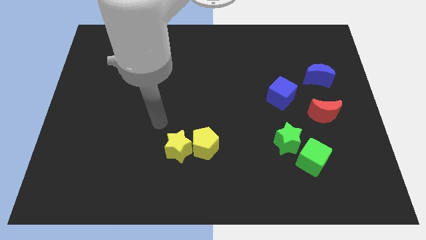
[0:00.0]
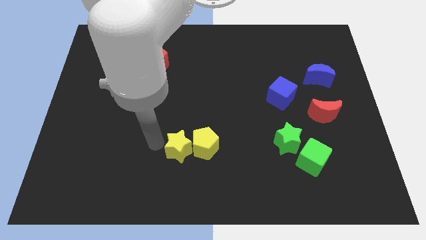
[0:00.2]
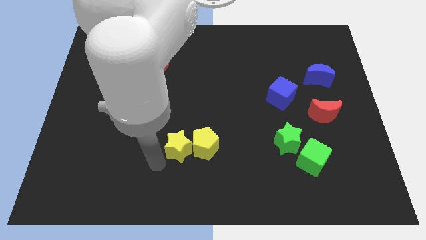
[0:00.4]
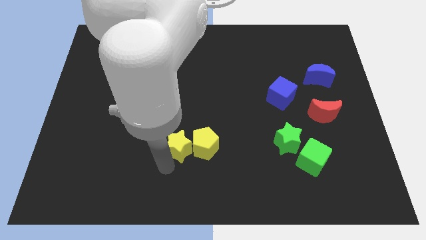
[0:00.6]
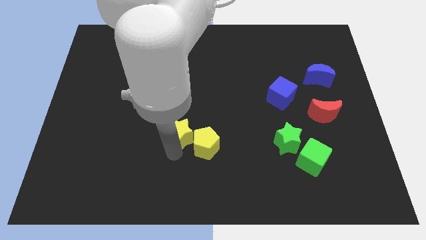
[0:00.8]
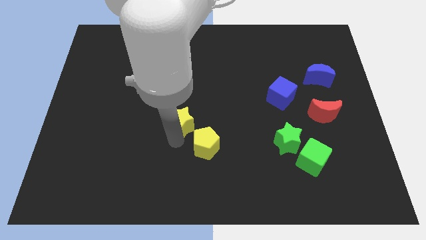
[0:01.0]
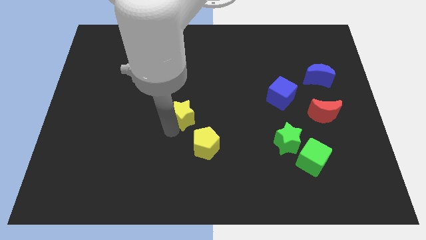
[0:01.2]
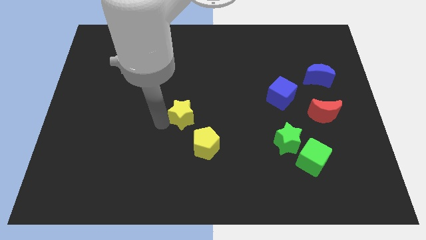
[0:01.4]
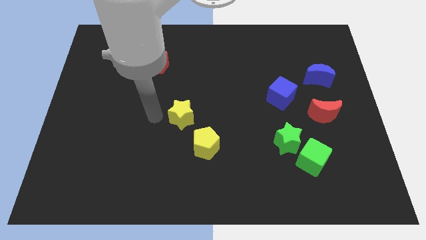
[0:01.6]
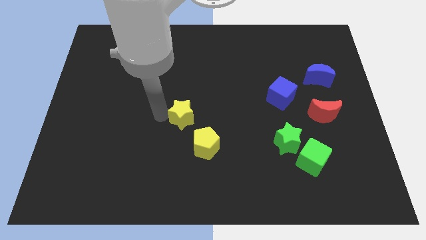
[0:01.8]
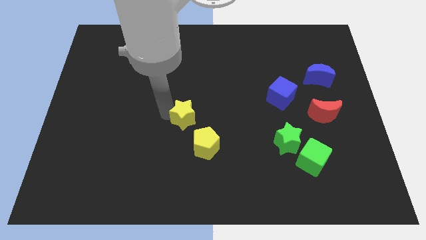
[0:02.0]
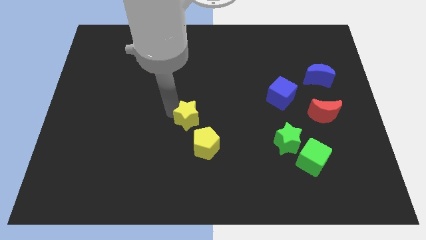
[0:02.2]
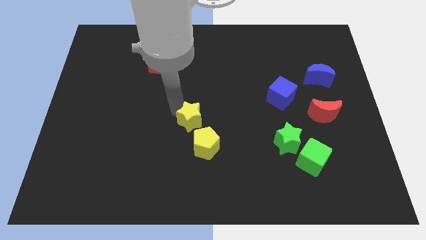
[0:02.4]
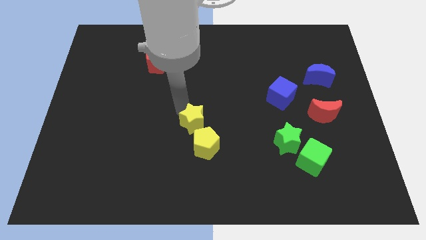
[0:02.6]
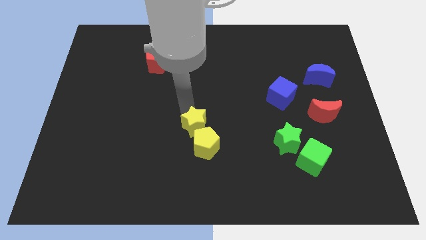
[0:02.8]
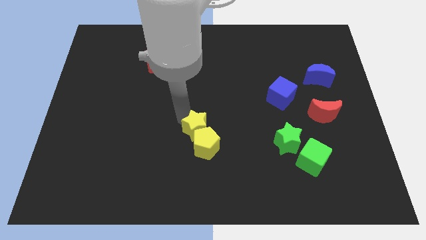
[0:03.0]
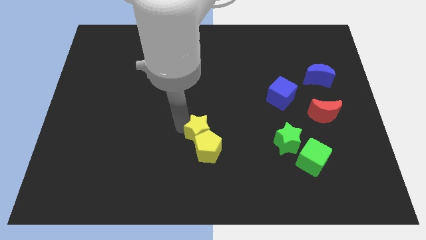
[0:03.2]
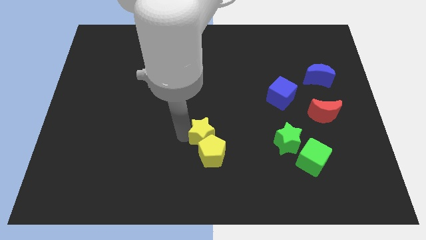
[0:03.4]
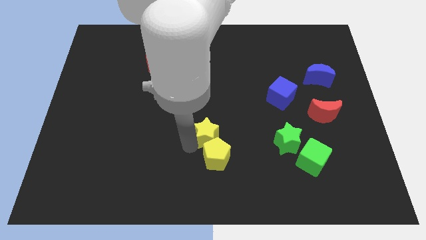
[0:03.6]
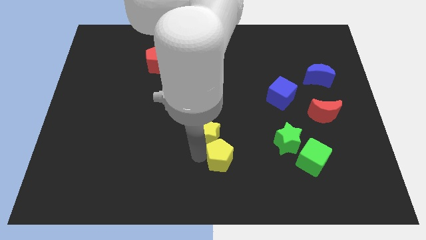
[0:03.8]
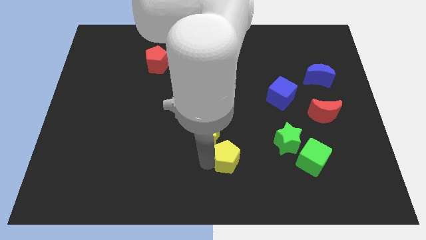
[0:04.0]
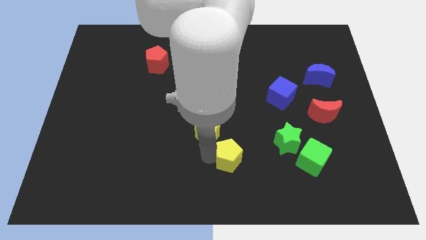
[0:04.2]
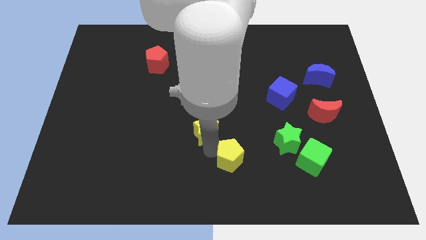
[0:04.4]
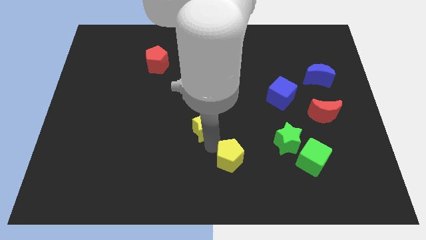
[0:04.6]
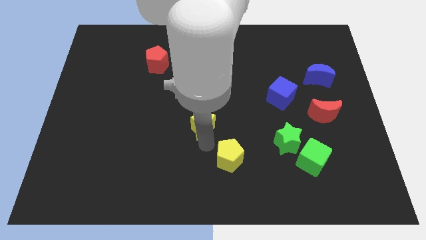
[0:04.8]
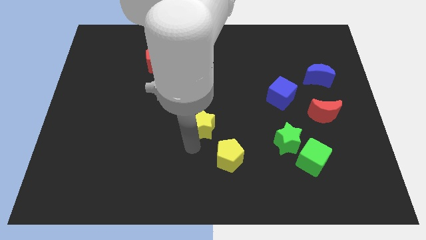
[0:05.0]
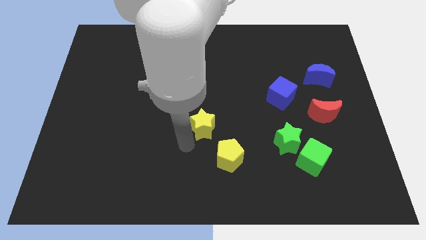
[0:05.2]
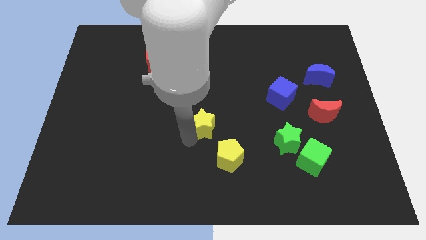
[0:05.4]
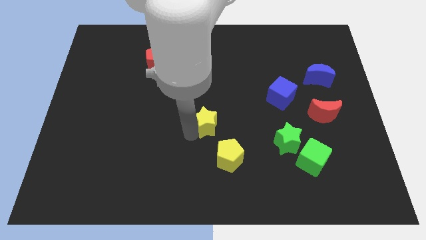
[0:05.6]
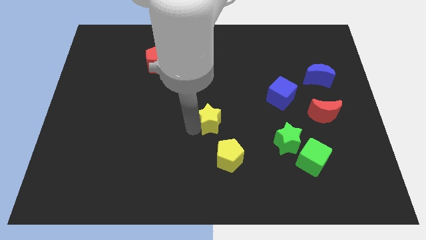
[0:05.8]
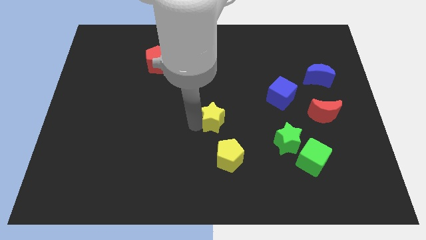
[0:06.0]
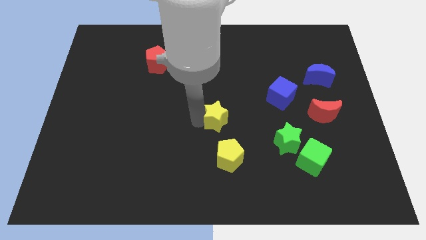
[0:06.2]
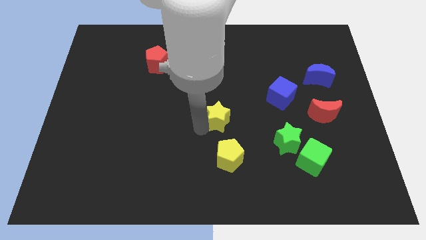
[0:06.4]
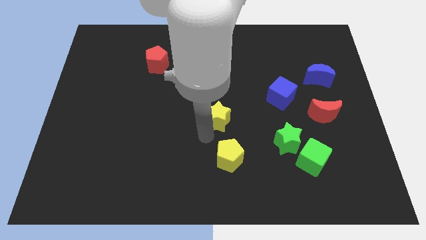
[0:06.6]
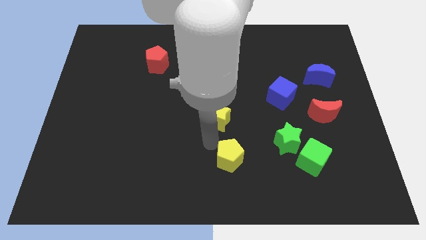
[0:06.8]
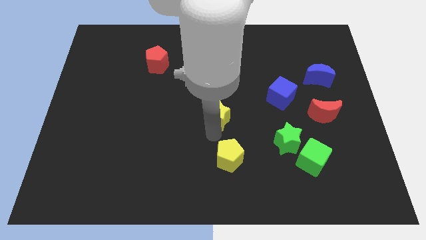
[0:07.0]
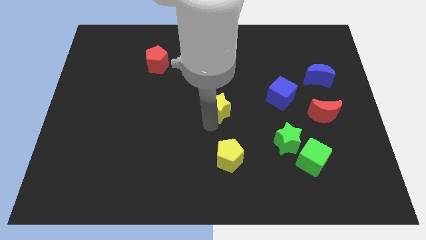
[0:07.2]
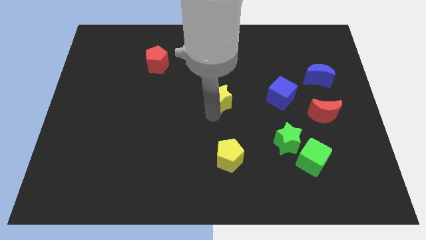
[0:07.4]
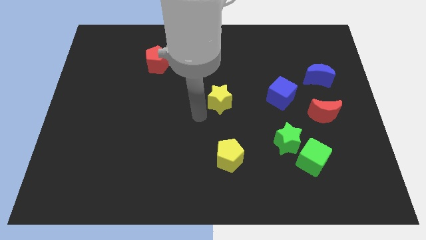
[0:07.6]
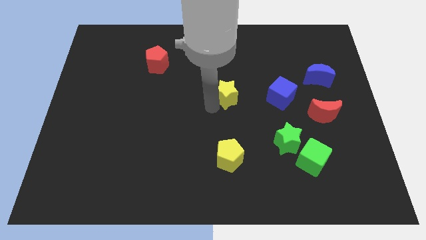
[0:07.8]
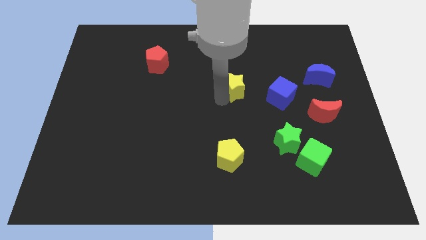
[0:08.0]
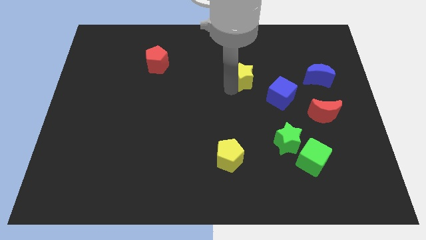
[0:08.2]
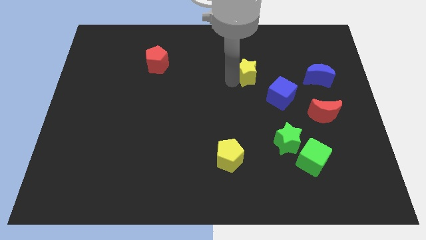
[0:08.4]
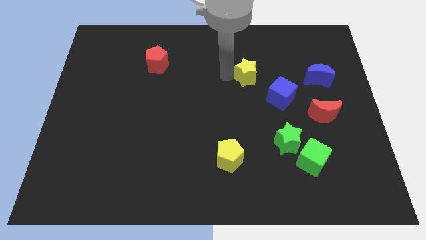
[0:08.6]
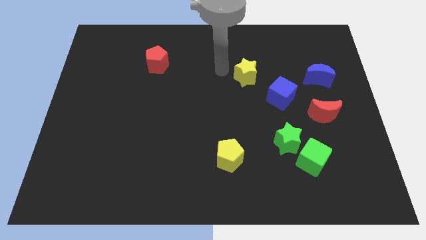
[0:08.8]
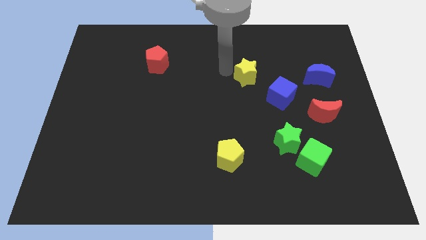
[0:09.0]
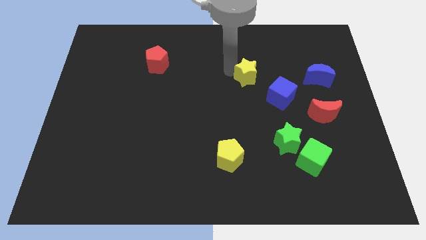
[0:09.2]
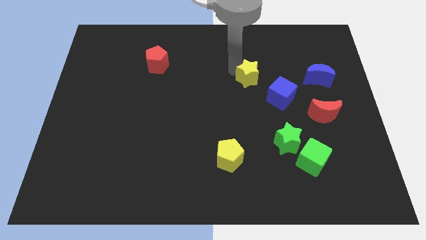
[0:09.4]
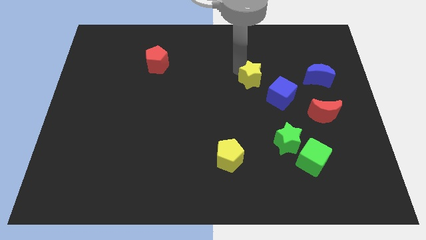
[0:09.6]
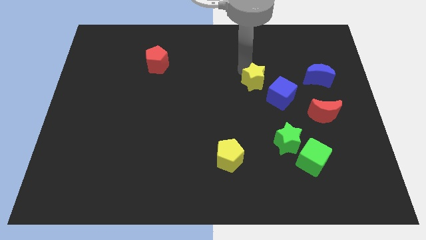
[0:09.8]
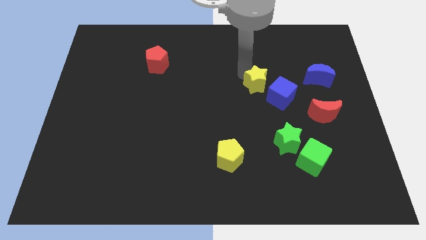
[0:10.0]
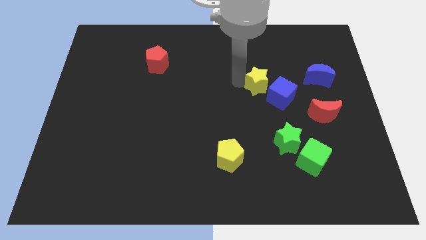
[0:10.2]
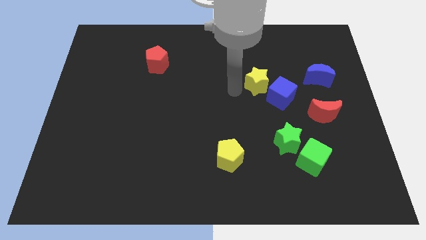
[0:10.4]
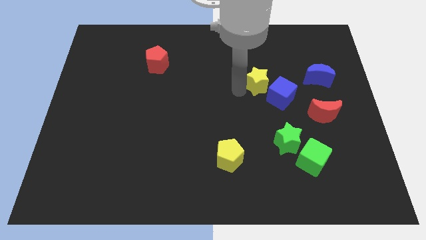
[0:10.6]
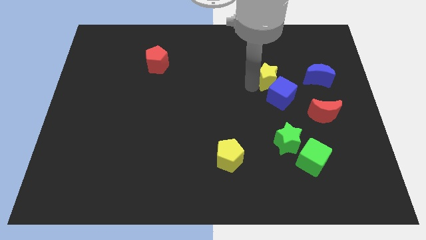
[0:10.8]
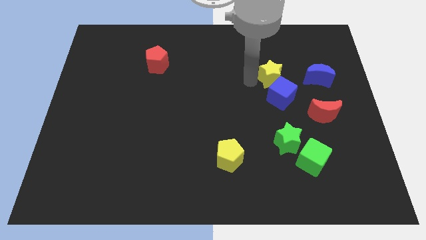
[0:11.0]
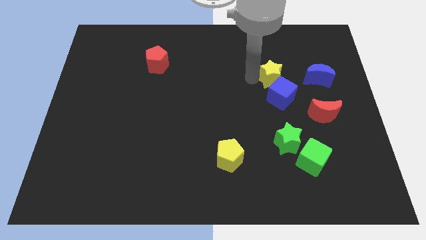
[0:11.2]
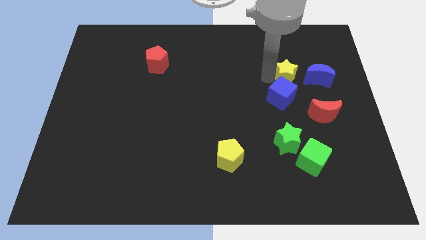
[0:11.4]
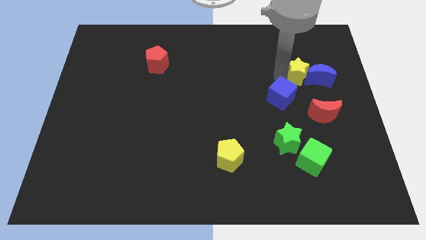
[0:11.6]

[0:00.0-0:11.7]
slide the yellow star close to the blue moon

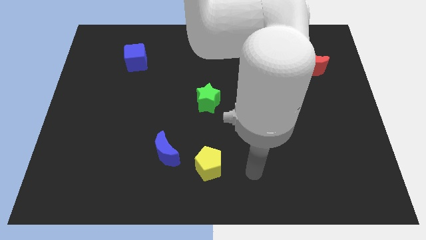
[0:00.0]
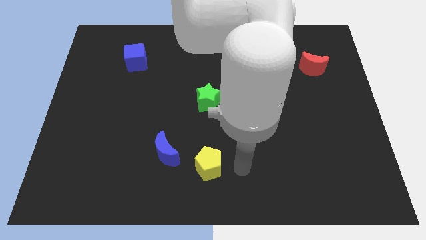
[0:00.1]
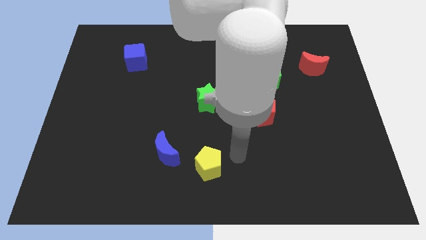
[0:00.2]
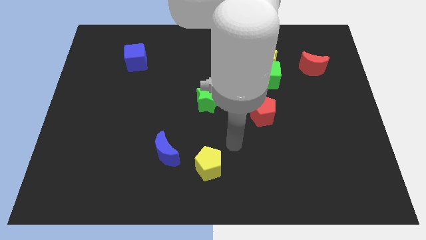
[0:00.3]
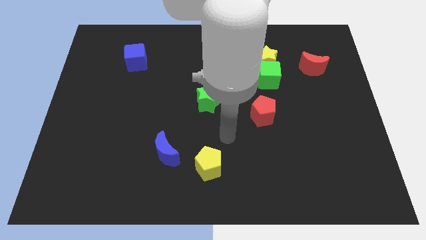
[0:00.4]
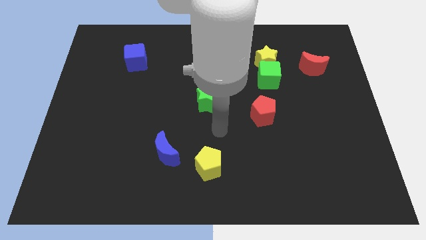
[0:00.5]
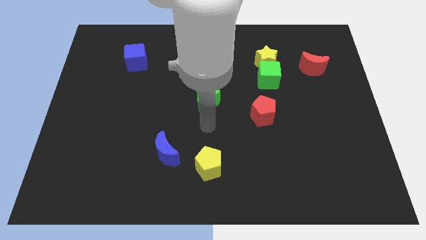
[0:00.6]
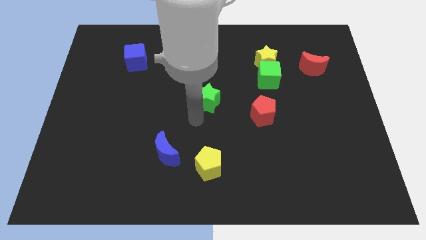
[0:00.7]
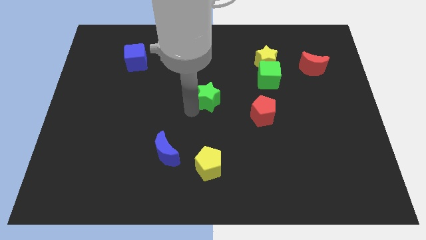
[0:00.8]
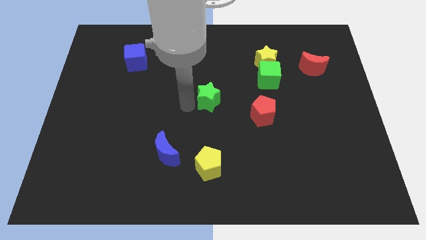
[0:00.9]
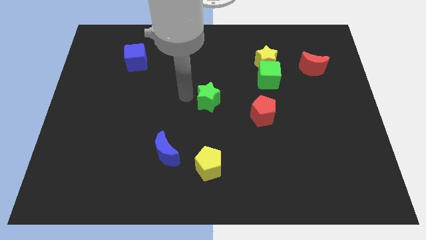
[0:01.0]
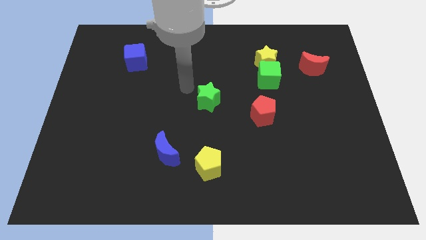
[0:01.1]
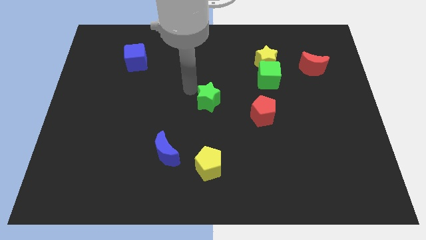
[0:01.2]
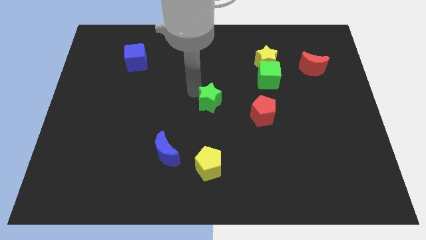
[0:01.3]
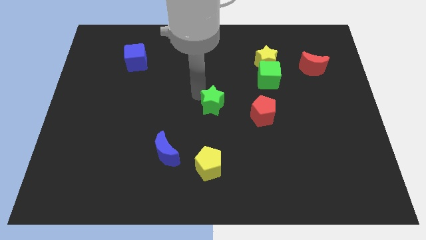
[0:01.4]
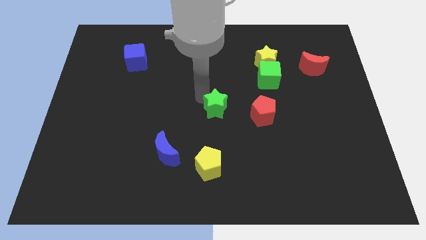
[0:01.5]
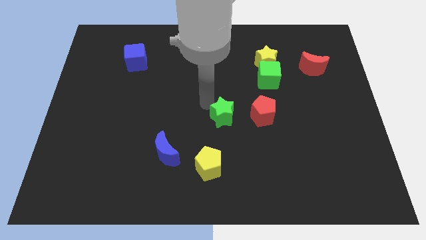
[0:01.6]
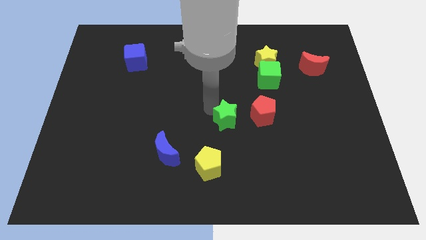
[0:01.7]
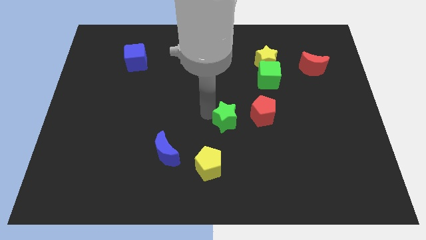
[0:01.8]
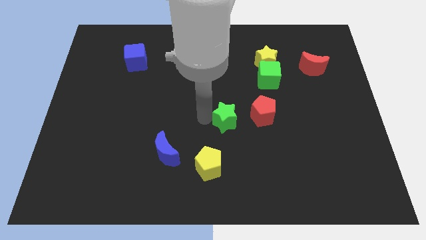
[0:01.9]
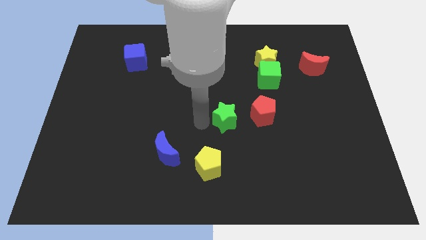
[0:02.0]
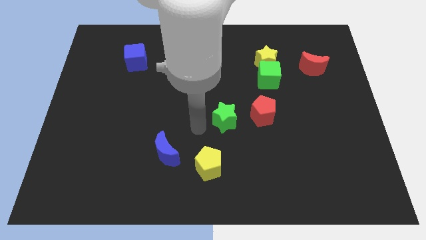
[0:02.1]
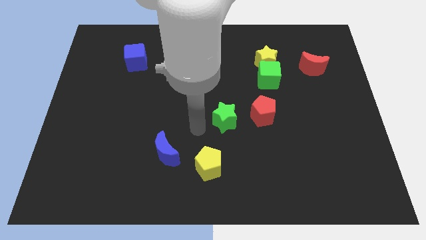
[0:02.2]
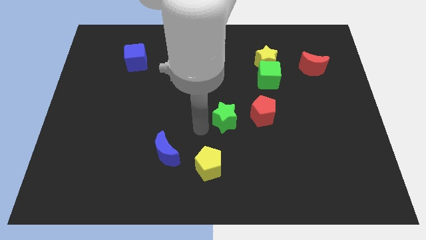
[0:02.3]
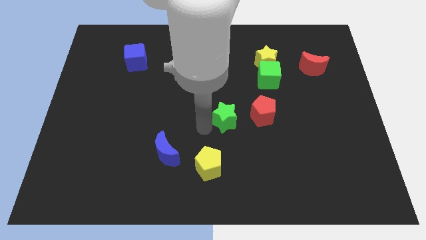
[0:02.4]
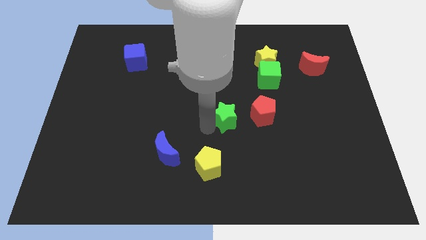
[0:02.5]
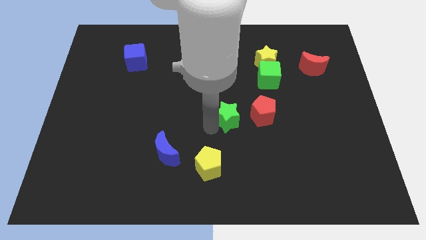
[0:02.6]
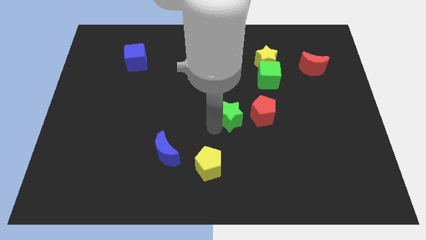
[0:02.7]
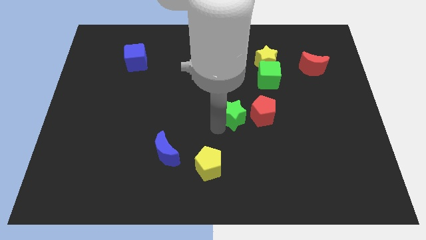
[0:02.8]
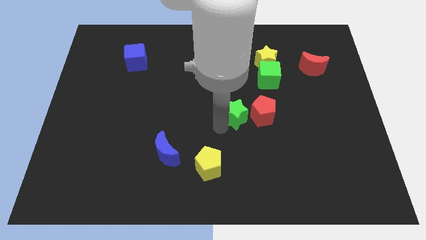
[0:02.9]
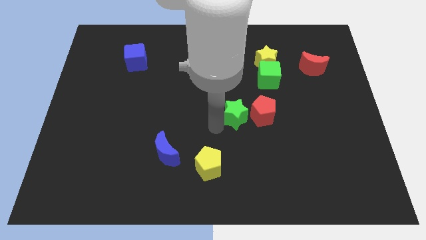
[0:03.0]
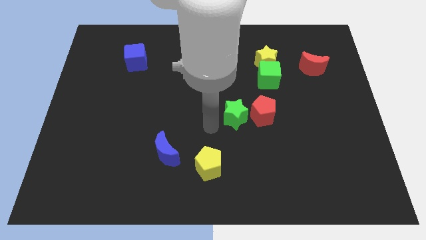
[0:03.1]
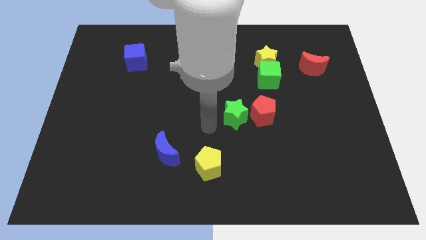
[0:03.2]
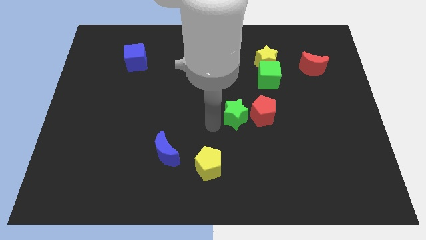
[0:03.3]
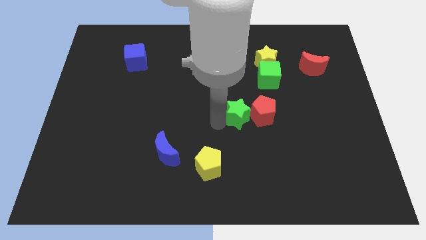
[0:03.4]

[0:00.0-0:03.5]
slide the green star close to the red pentagon
